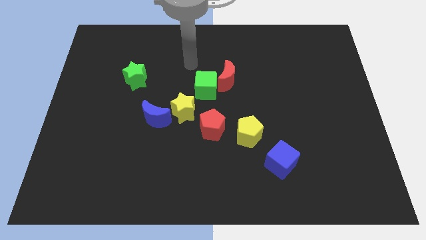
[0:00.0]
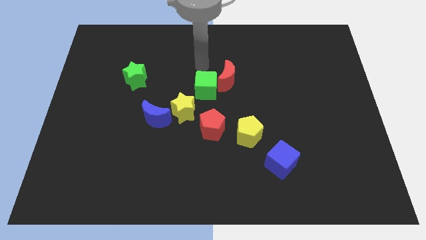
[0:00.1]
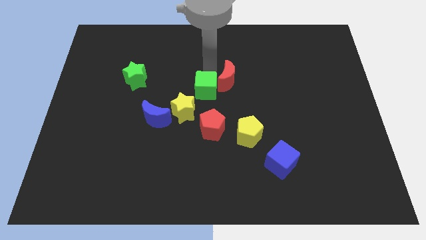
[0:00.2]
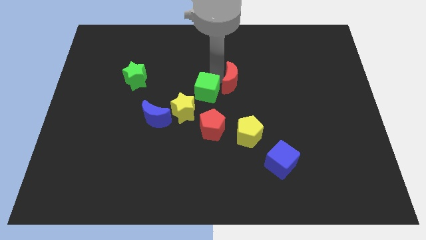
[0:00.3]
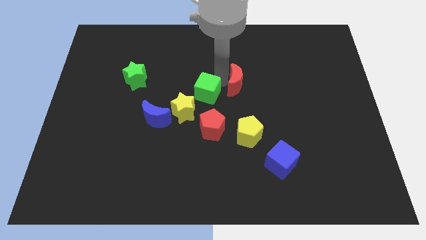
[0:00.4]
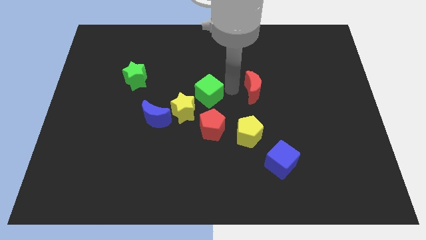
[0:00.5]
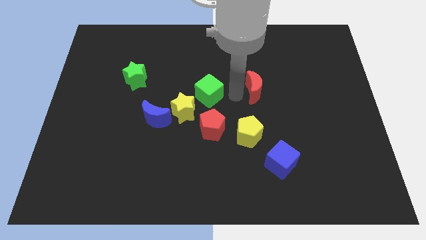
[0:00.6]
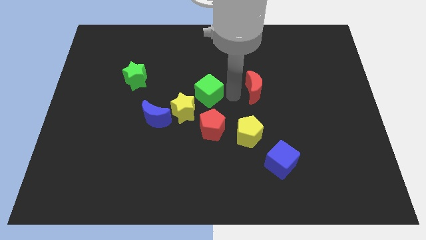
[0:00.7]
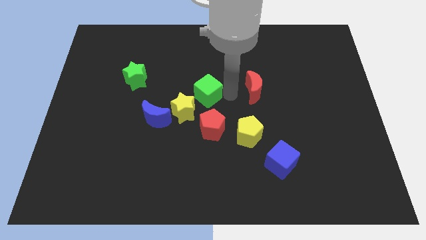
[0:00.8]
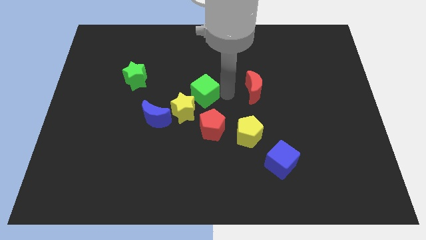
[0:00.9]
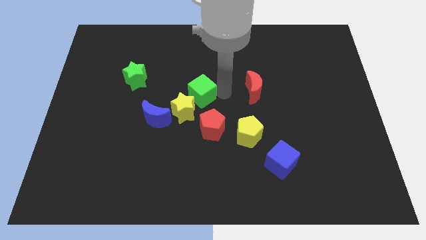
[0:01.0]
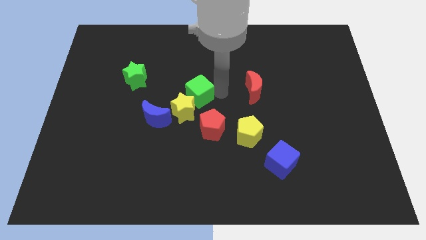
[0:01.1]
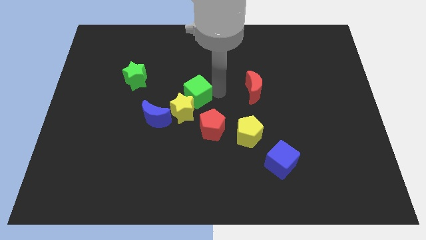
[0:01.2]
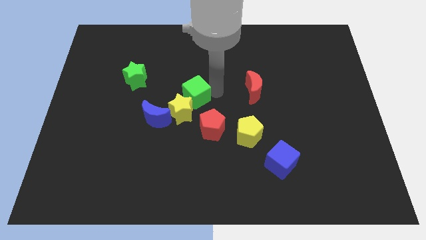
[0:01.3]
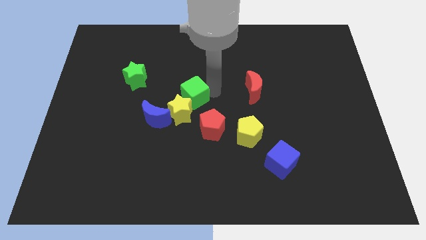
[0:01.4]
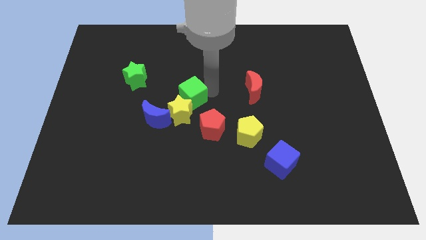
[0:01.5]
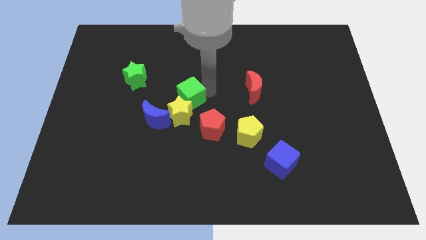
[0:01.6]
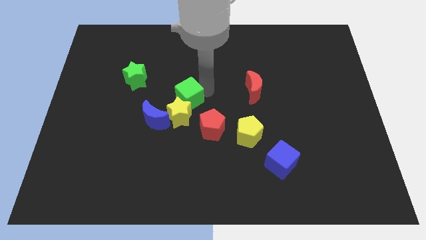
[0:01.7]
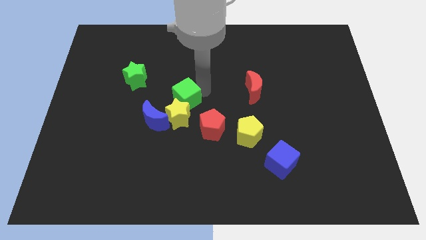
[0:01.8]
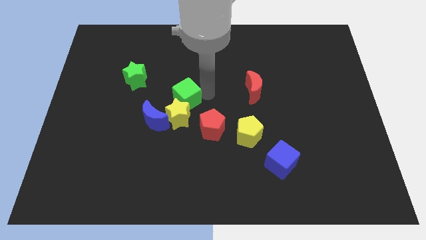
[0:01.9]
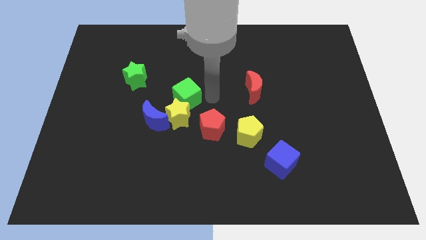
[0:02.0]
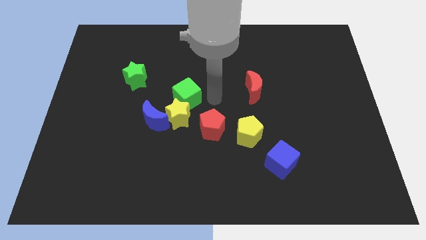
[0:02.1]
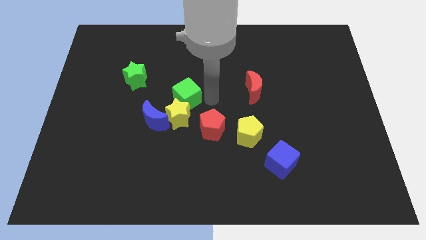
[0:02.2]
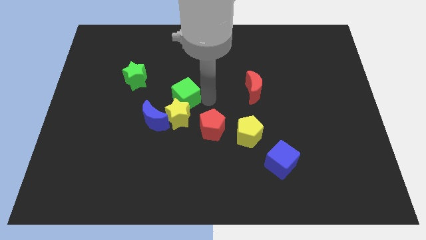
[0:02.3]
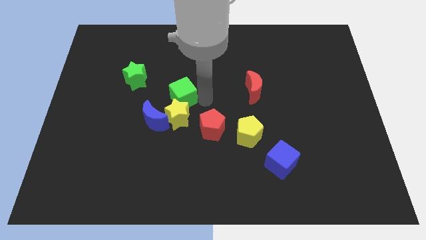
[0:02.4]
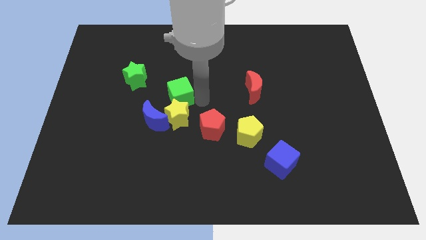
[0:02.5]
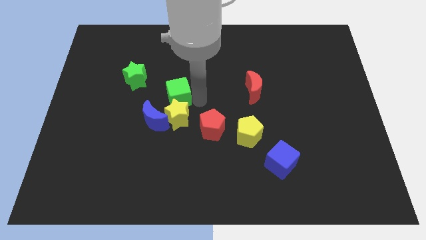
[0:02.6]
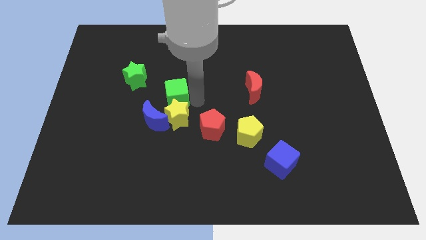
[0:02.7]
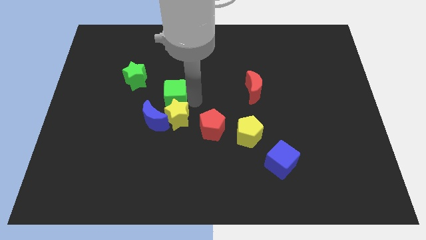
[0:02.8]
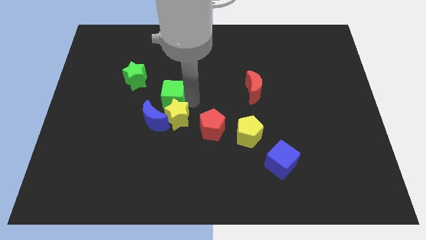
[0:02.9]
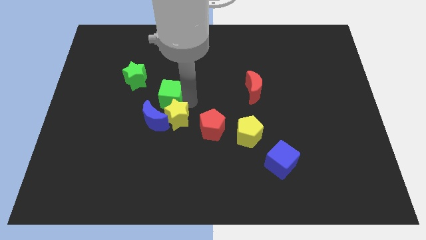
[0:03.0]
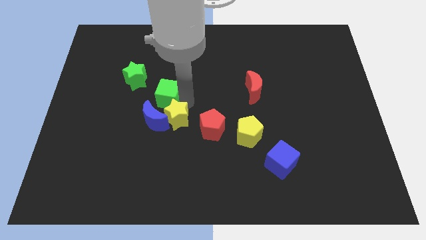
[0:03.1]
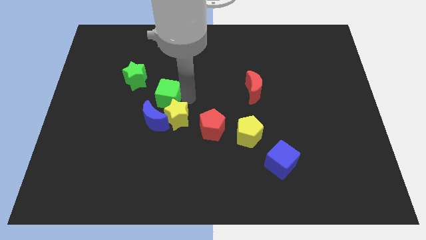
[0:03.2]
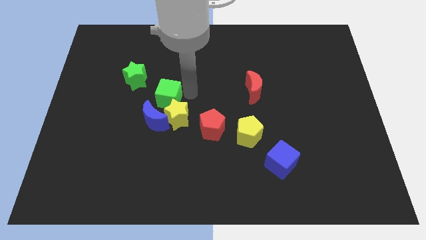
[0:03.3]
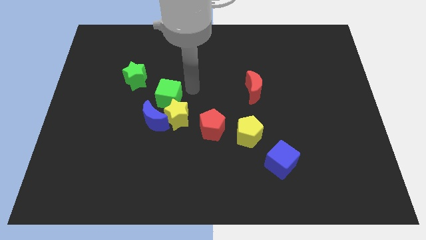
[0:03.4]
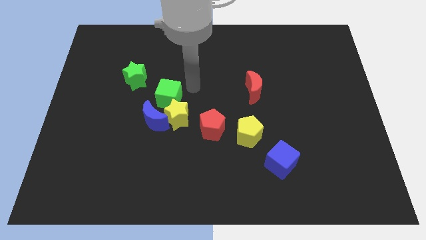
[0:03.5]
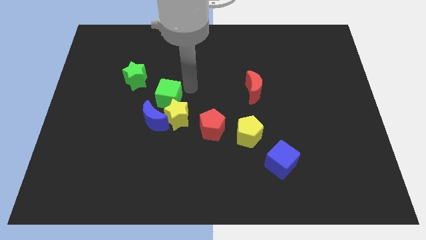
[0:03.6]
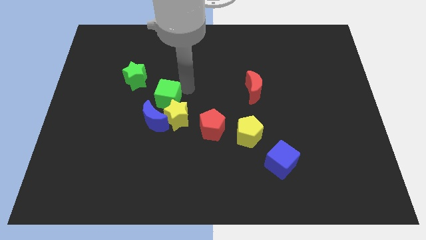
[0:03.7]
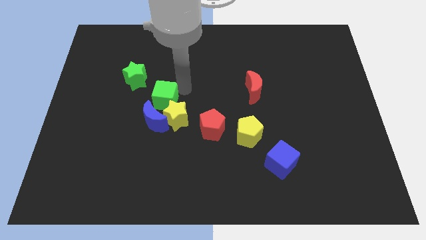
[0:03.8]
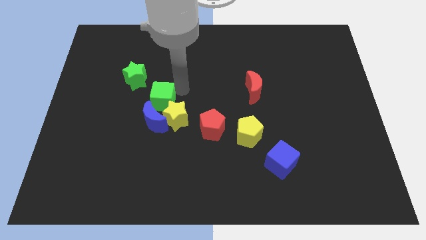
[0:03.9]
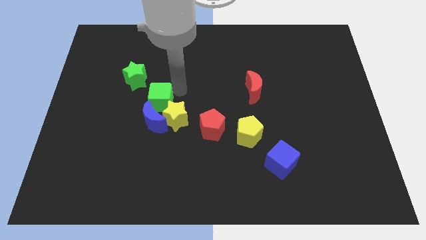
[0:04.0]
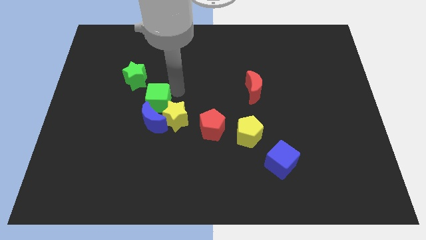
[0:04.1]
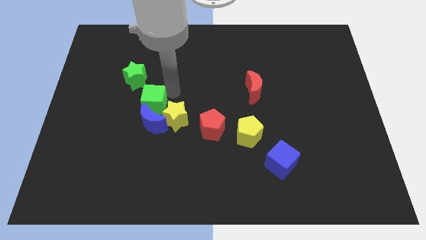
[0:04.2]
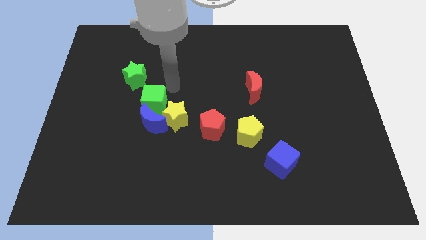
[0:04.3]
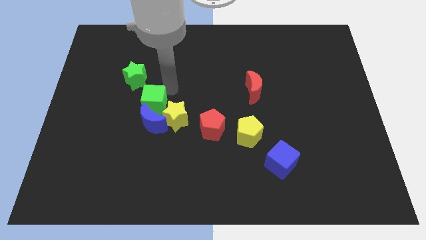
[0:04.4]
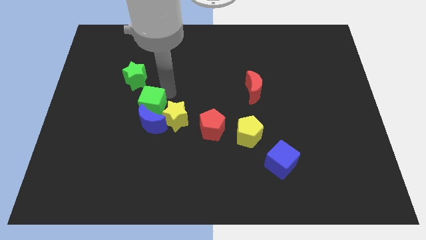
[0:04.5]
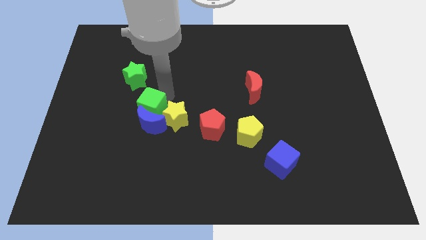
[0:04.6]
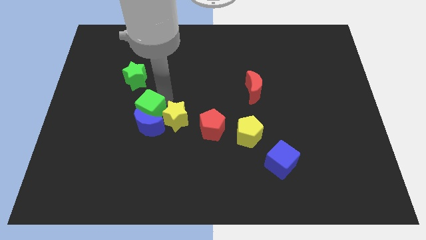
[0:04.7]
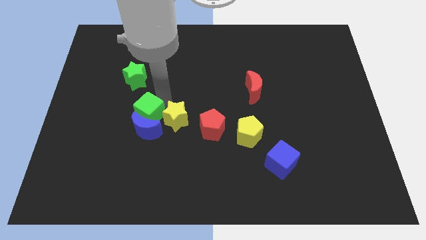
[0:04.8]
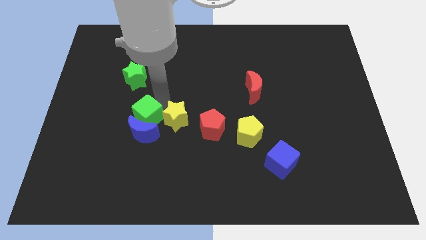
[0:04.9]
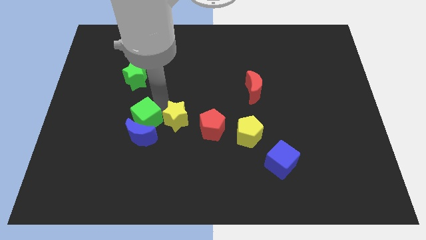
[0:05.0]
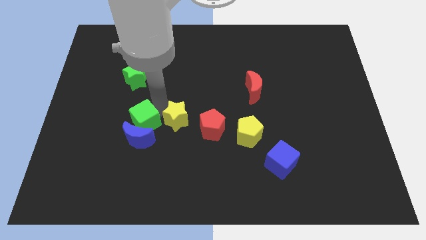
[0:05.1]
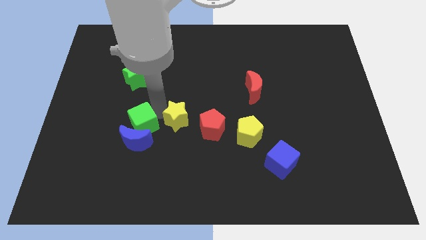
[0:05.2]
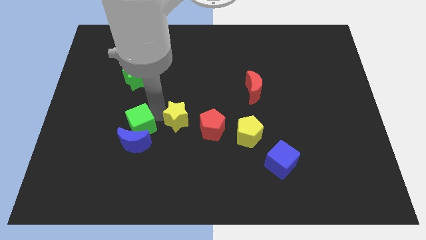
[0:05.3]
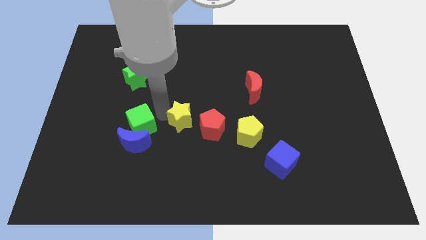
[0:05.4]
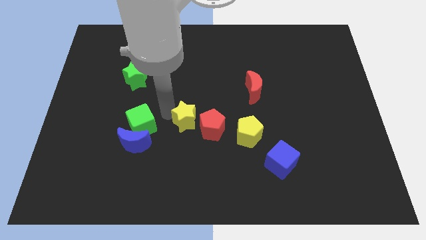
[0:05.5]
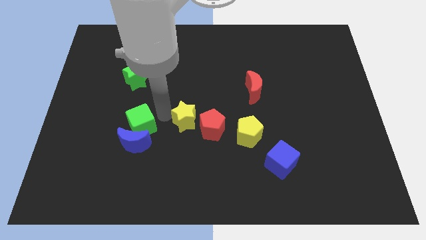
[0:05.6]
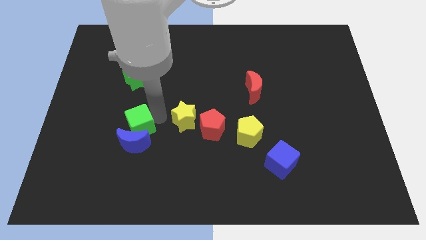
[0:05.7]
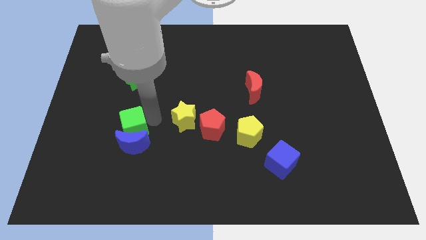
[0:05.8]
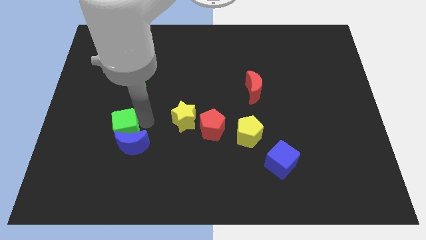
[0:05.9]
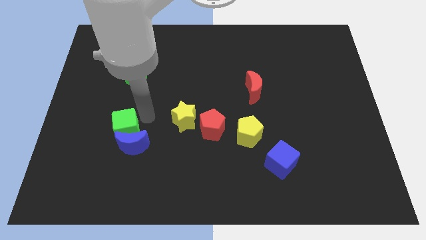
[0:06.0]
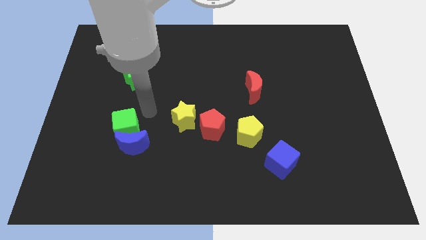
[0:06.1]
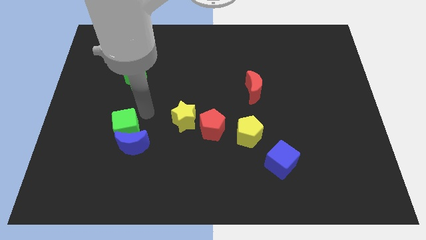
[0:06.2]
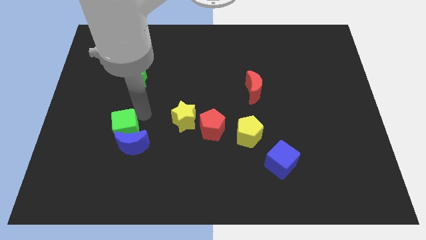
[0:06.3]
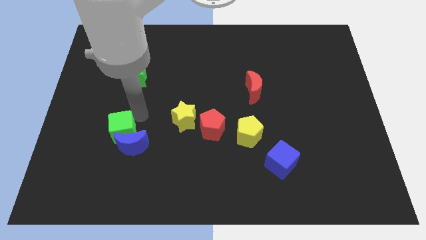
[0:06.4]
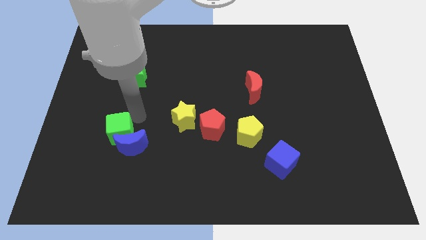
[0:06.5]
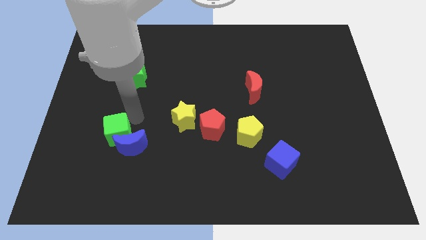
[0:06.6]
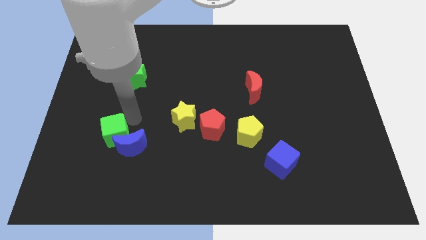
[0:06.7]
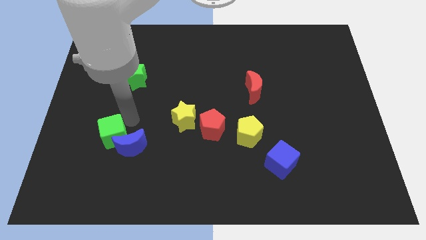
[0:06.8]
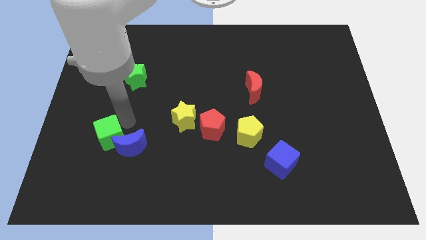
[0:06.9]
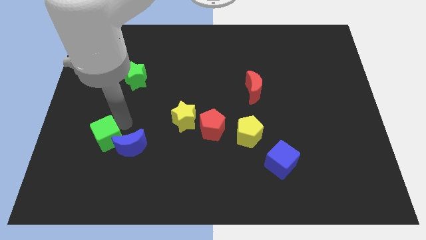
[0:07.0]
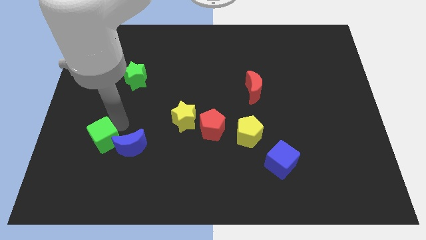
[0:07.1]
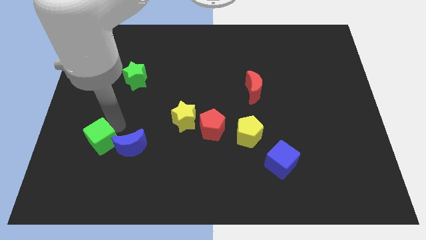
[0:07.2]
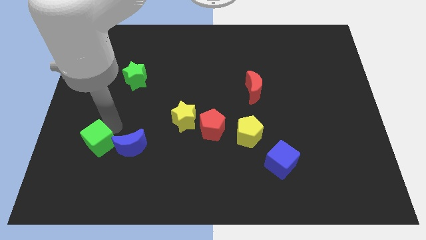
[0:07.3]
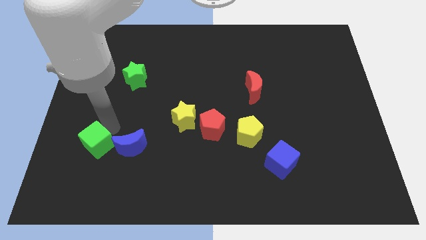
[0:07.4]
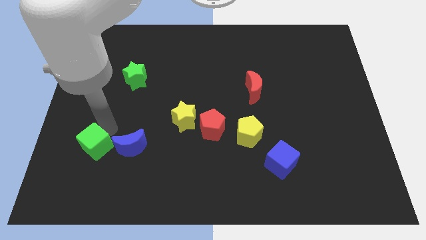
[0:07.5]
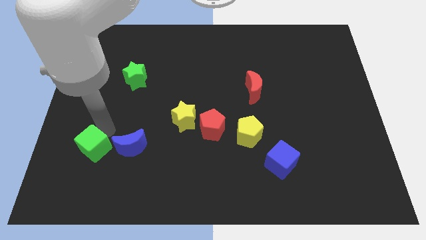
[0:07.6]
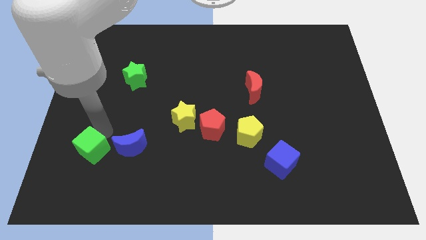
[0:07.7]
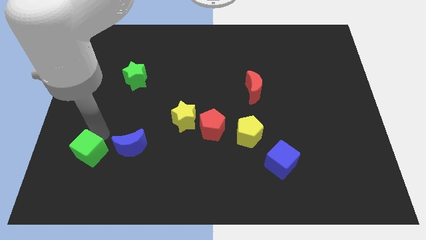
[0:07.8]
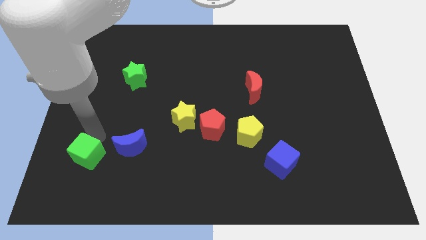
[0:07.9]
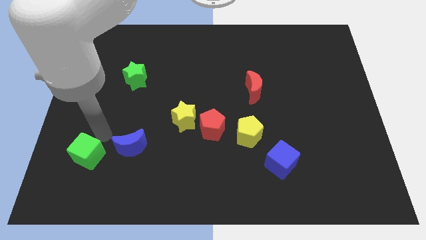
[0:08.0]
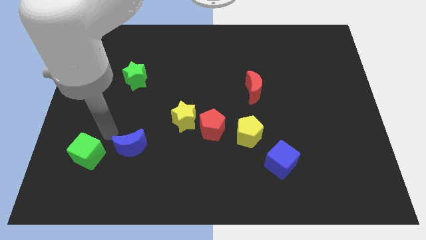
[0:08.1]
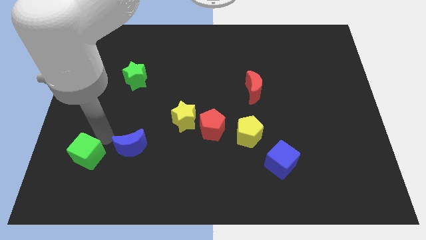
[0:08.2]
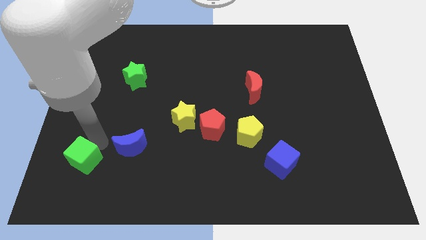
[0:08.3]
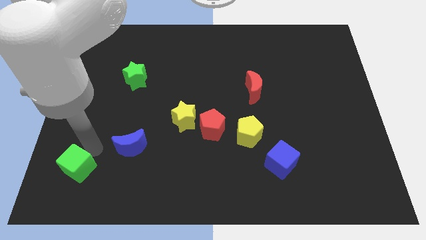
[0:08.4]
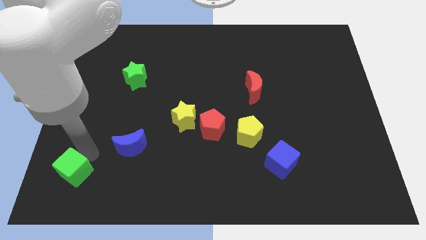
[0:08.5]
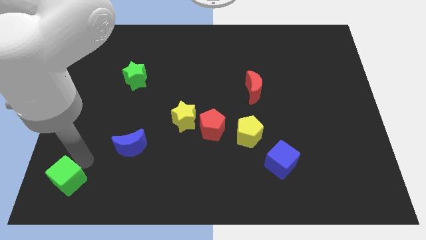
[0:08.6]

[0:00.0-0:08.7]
push the green cube to the lower left corner
